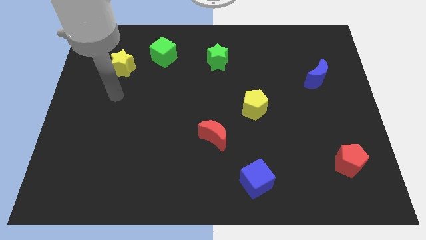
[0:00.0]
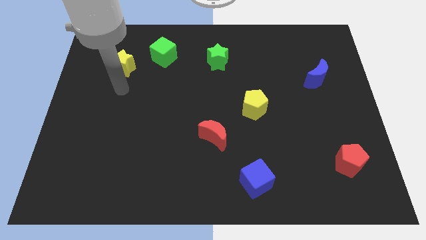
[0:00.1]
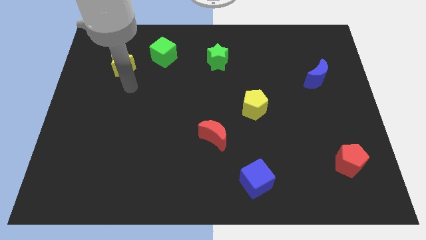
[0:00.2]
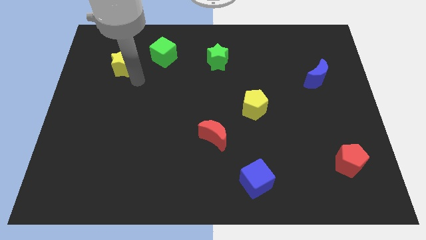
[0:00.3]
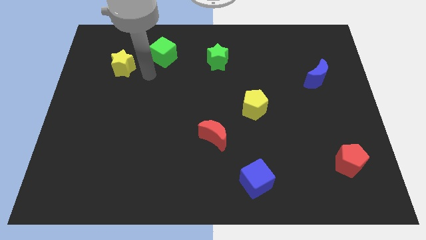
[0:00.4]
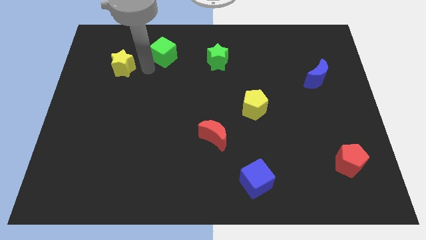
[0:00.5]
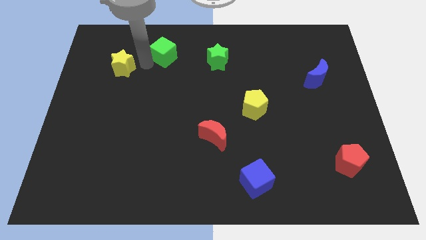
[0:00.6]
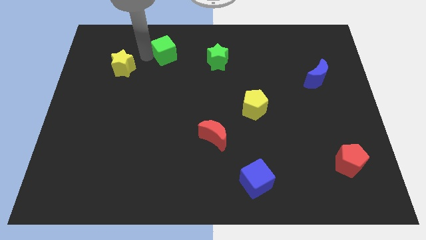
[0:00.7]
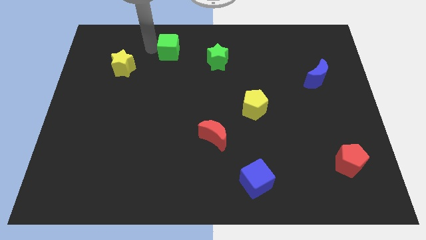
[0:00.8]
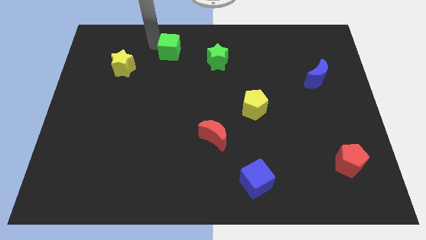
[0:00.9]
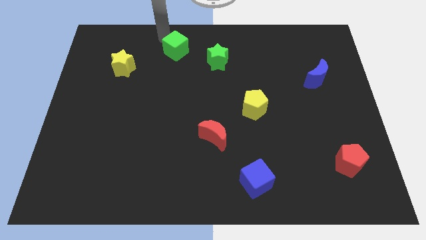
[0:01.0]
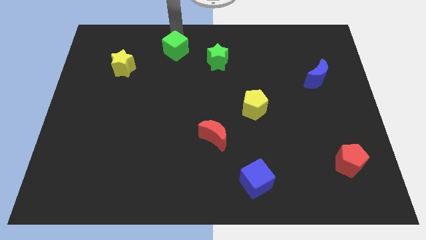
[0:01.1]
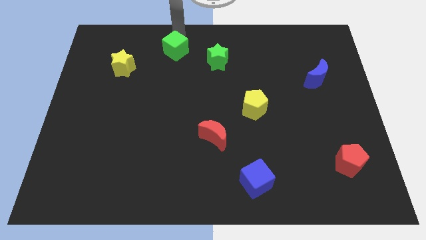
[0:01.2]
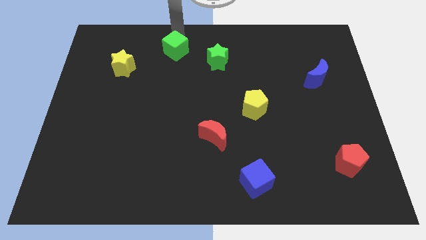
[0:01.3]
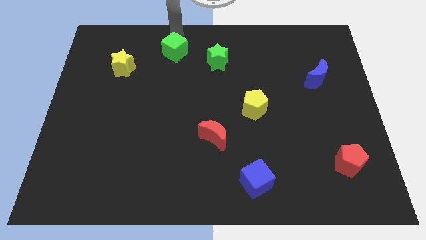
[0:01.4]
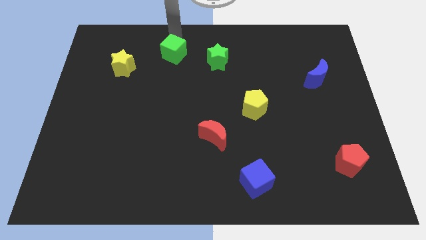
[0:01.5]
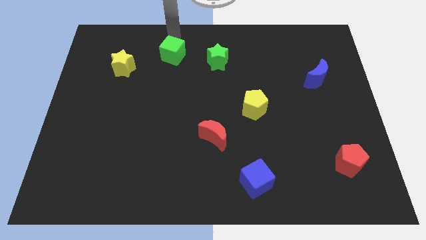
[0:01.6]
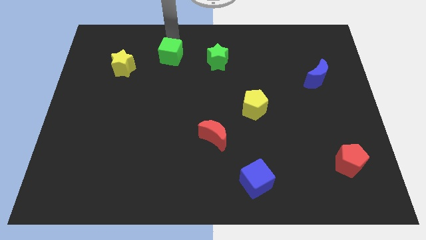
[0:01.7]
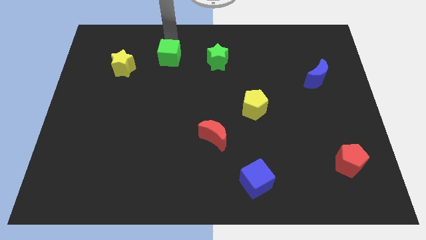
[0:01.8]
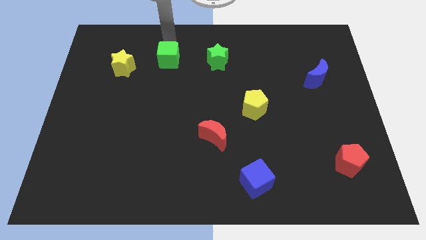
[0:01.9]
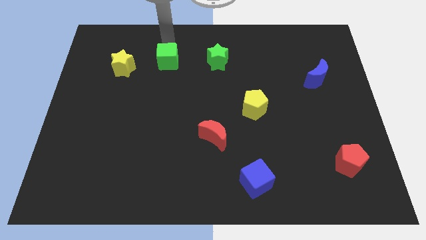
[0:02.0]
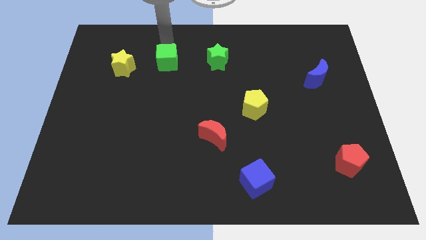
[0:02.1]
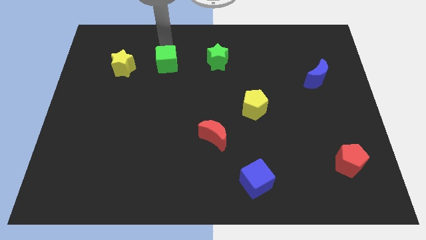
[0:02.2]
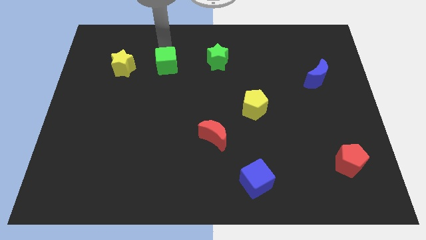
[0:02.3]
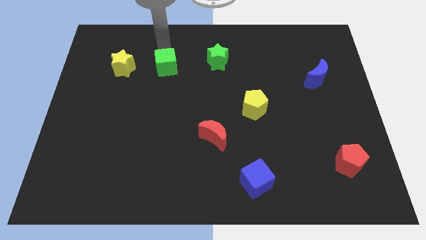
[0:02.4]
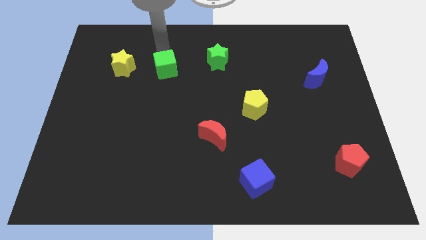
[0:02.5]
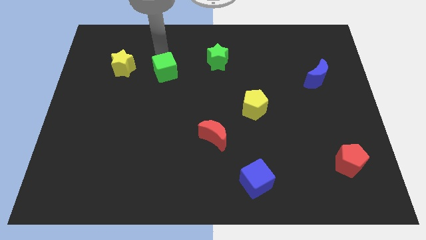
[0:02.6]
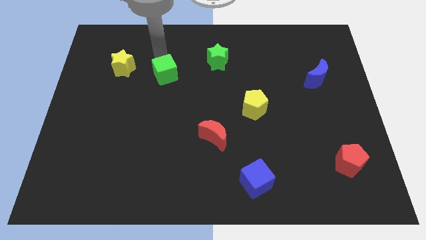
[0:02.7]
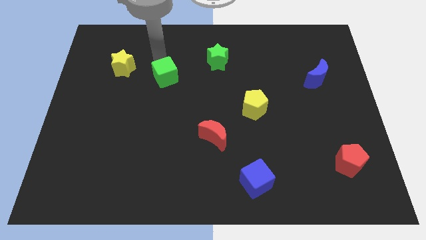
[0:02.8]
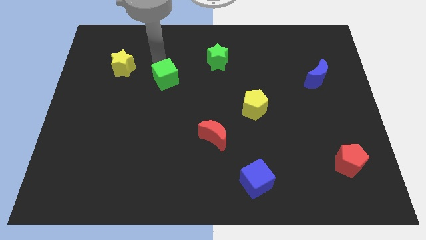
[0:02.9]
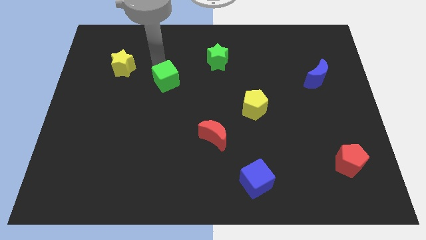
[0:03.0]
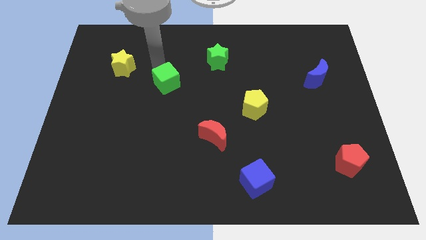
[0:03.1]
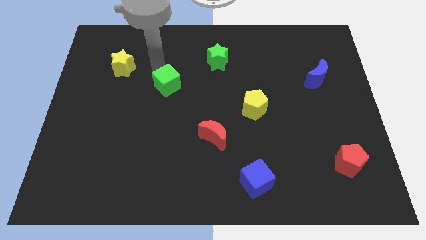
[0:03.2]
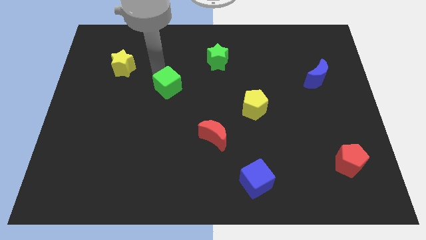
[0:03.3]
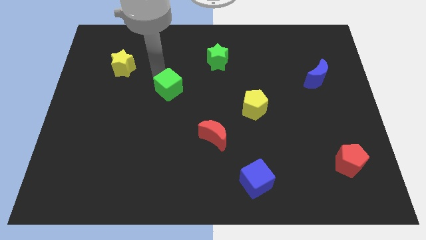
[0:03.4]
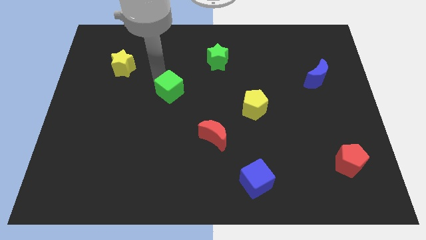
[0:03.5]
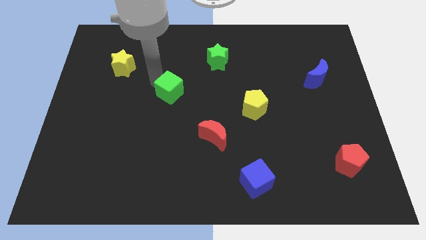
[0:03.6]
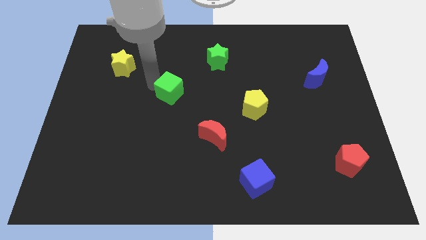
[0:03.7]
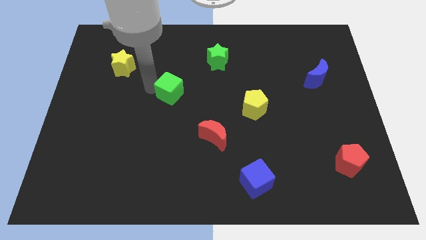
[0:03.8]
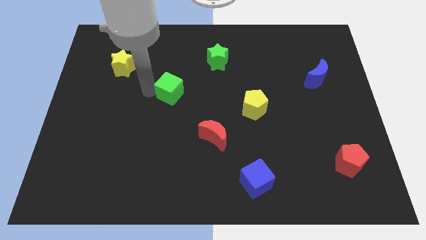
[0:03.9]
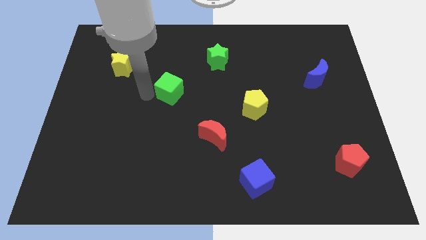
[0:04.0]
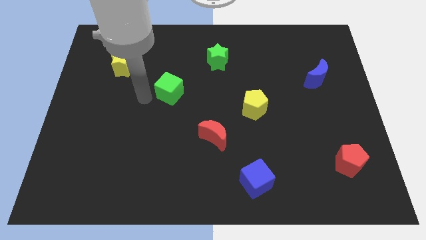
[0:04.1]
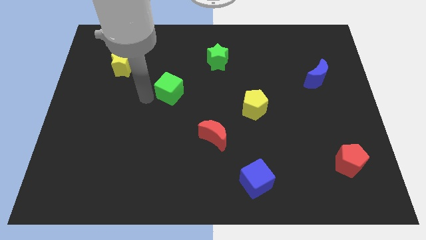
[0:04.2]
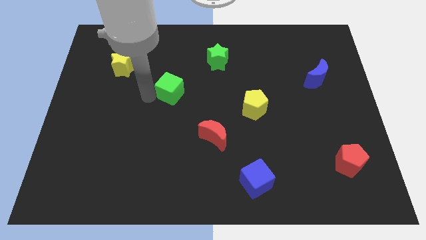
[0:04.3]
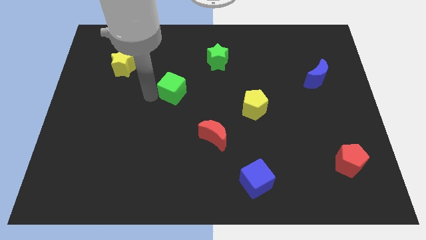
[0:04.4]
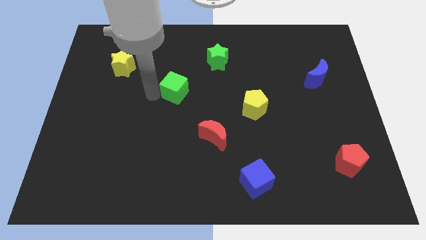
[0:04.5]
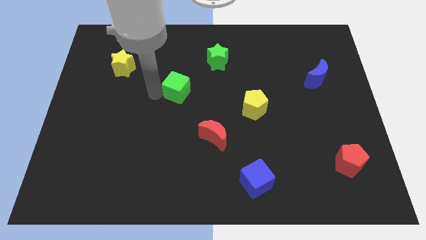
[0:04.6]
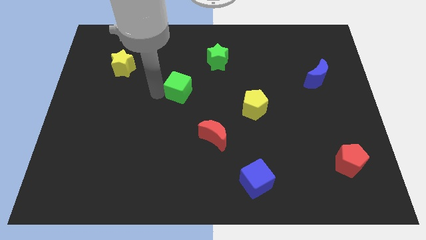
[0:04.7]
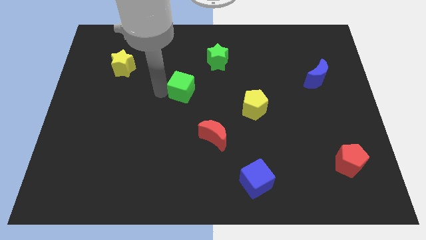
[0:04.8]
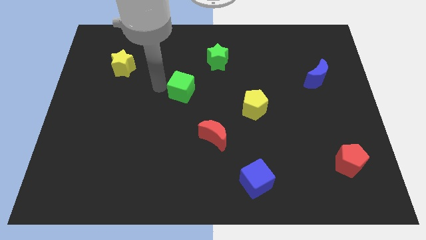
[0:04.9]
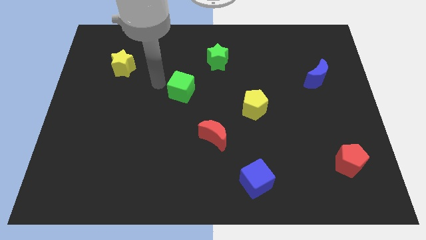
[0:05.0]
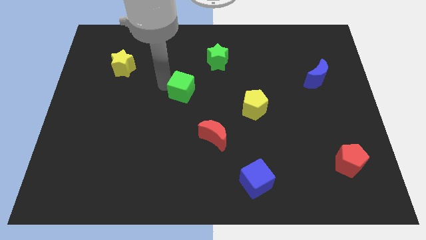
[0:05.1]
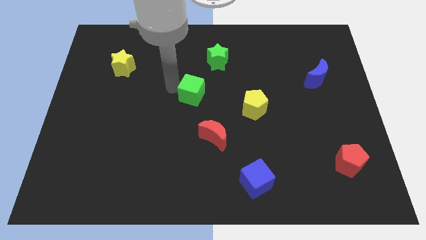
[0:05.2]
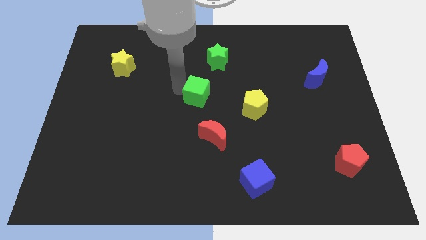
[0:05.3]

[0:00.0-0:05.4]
put the green cube above the red moon

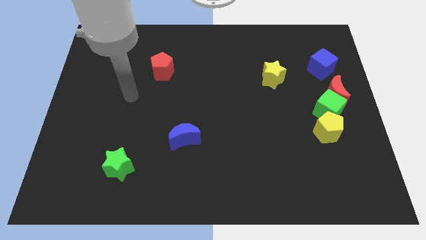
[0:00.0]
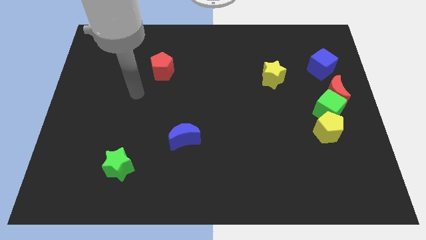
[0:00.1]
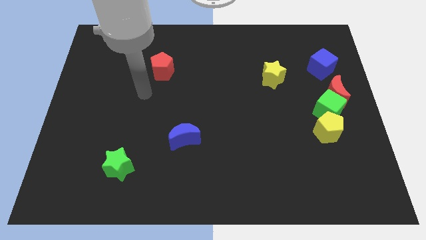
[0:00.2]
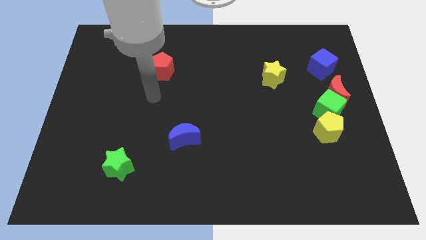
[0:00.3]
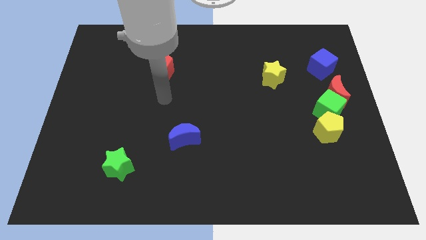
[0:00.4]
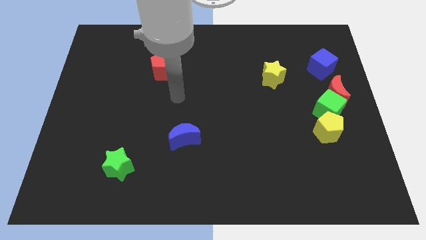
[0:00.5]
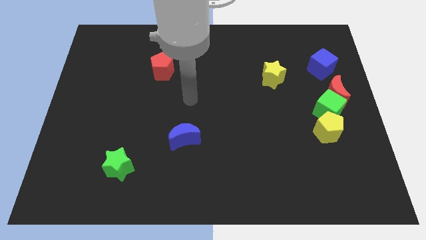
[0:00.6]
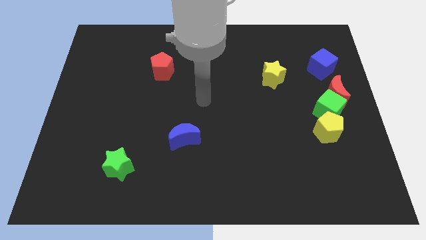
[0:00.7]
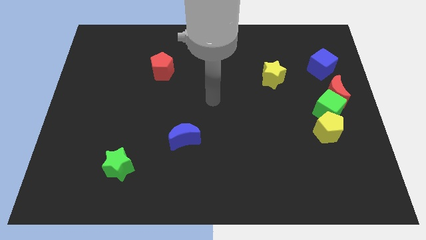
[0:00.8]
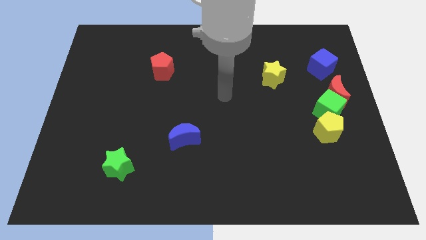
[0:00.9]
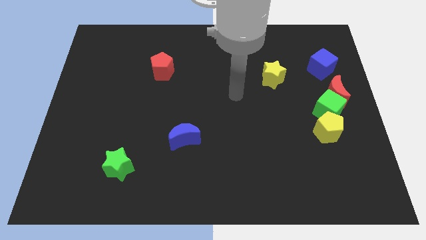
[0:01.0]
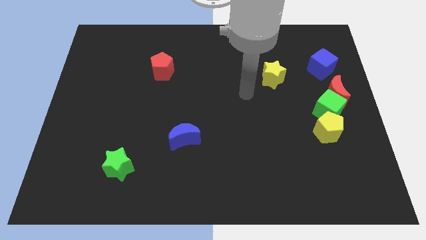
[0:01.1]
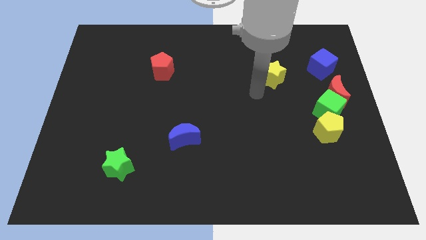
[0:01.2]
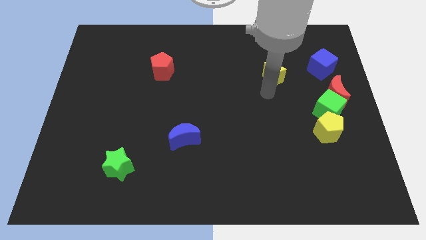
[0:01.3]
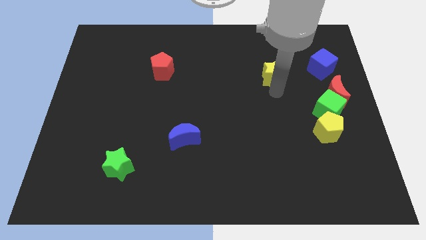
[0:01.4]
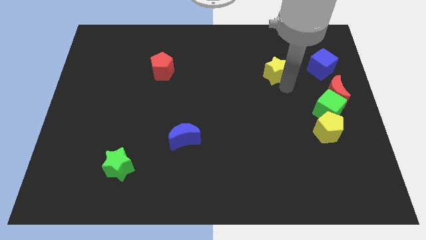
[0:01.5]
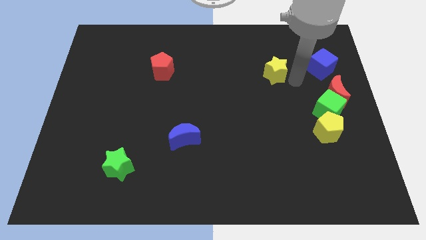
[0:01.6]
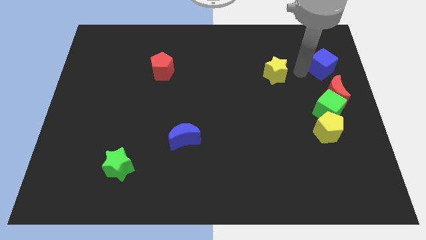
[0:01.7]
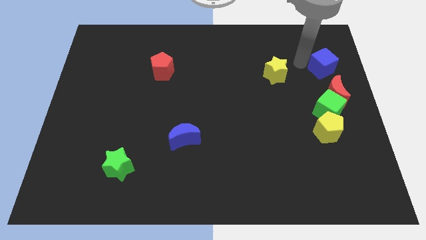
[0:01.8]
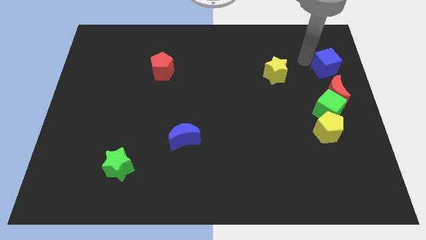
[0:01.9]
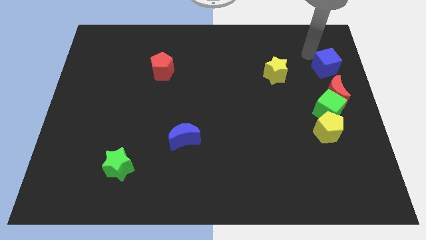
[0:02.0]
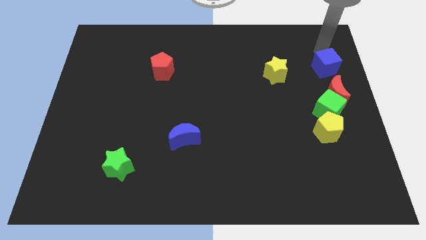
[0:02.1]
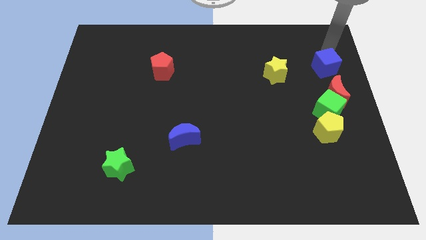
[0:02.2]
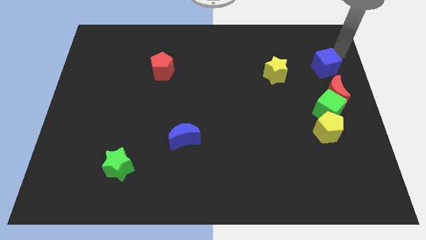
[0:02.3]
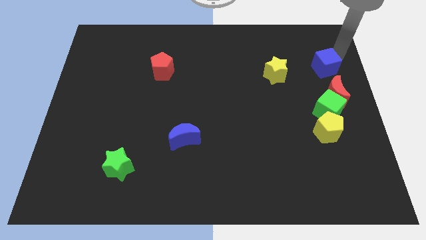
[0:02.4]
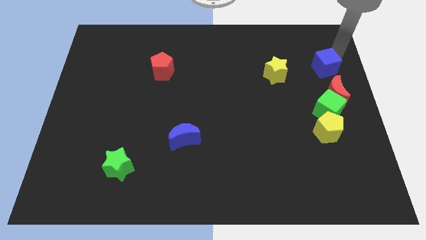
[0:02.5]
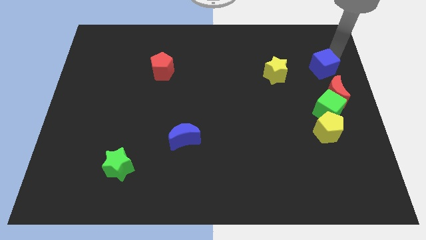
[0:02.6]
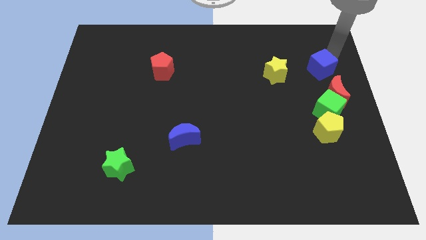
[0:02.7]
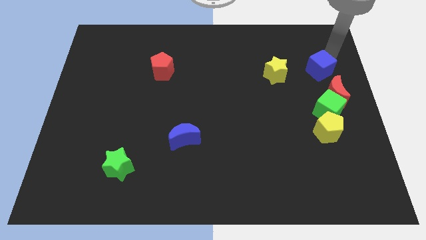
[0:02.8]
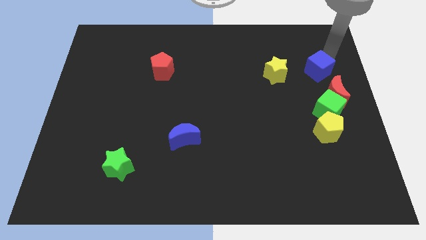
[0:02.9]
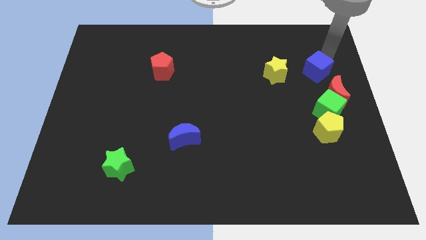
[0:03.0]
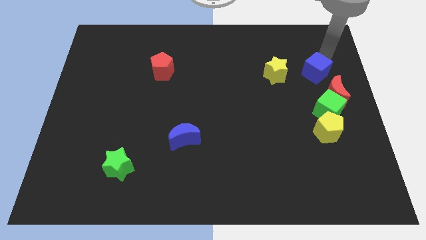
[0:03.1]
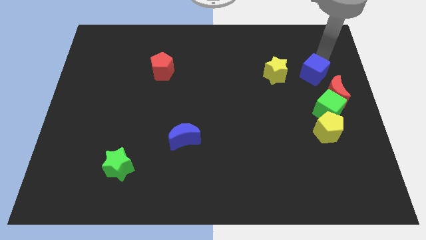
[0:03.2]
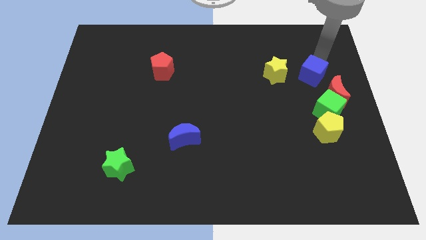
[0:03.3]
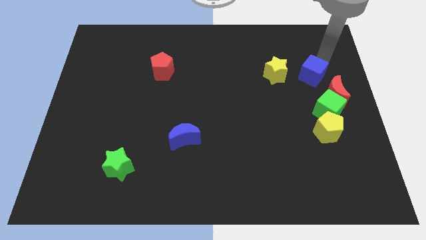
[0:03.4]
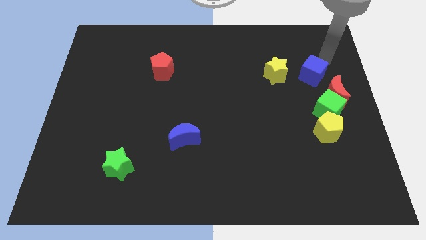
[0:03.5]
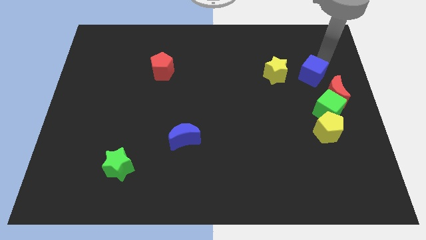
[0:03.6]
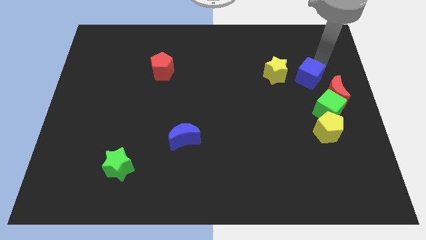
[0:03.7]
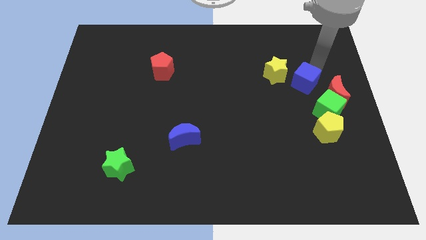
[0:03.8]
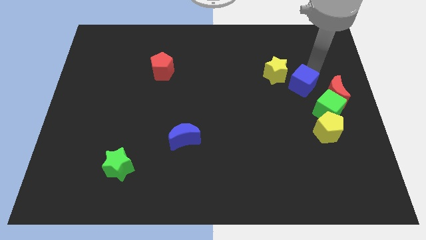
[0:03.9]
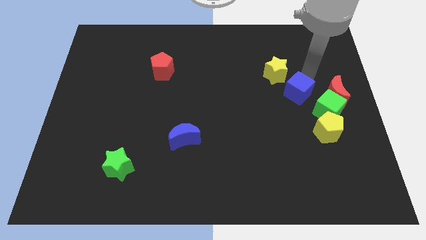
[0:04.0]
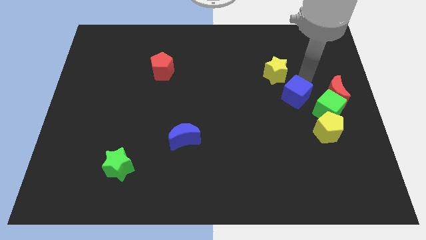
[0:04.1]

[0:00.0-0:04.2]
slide the blue cube to the left of the green cube
